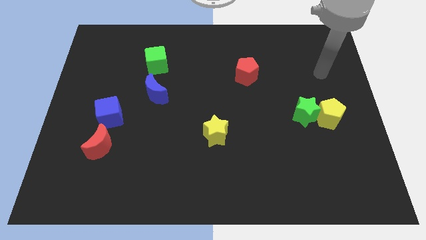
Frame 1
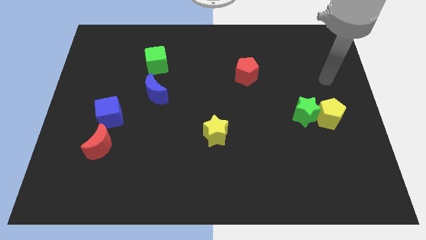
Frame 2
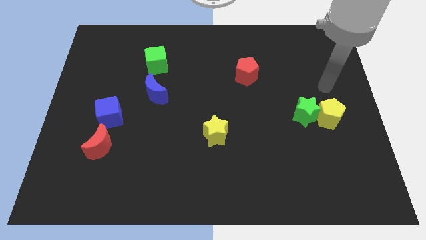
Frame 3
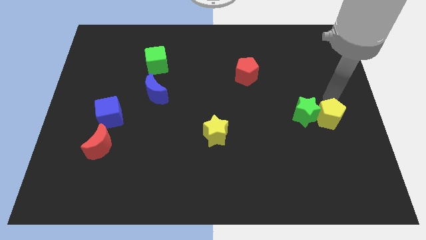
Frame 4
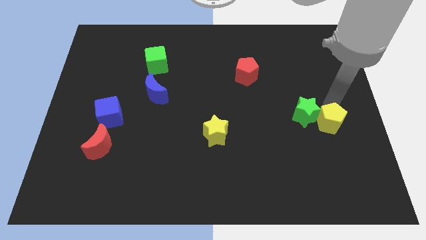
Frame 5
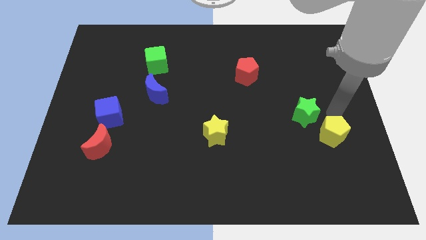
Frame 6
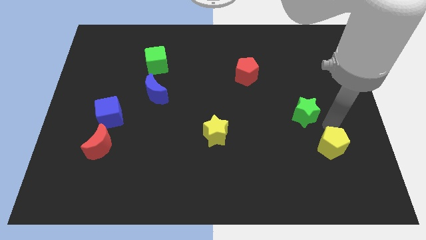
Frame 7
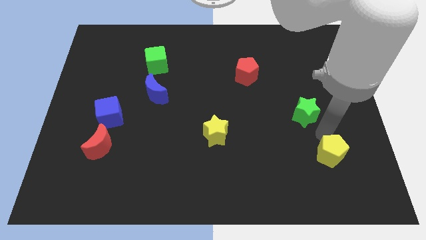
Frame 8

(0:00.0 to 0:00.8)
separate the green star from the yellow pentagon

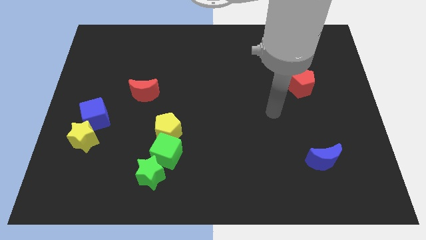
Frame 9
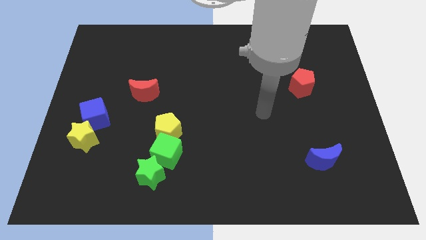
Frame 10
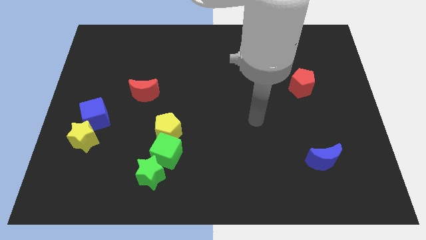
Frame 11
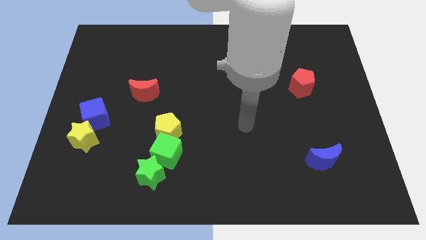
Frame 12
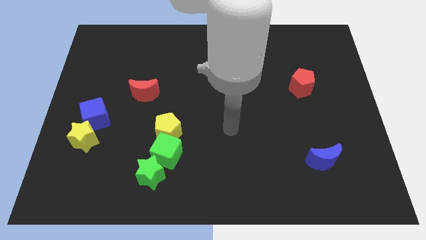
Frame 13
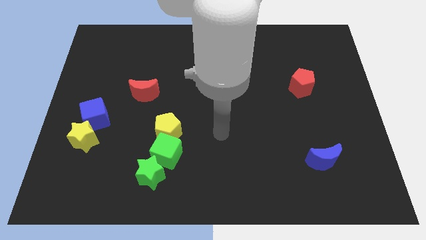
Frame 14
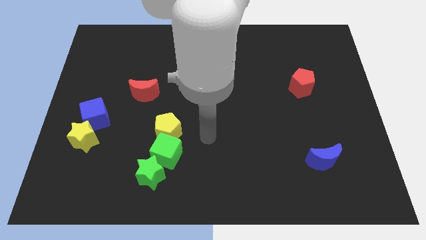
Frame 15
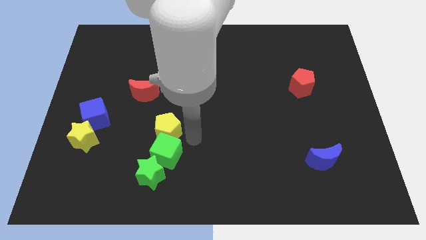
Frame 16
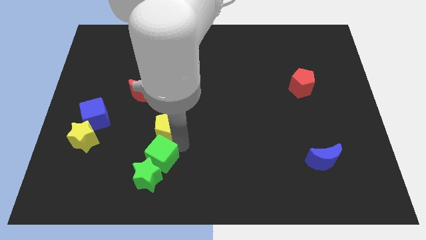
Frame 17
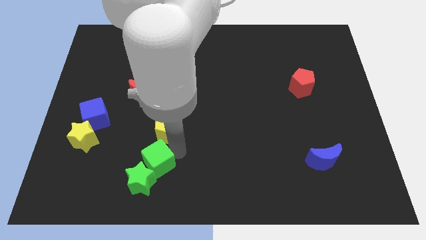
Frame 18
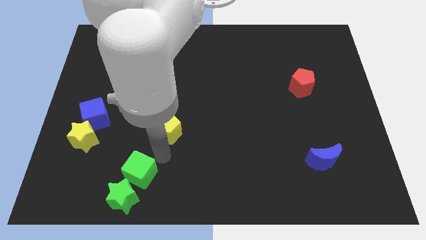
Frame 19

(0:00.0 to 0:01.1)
move the yellow pentagon away from the green cube

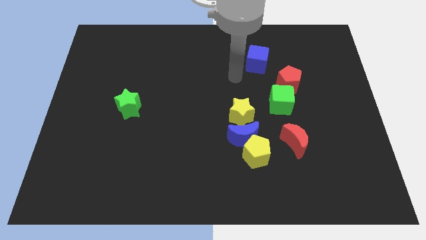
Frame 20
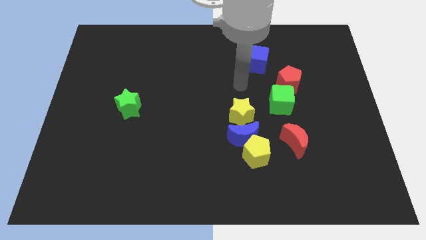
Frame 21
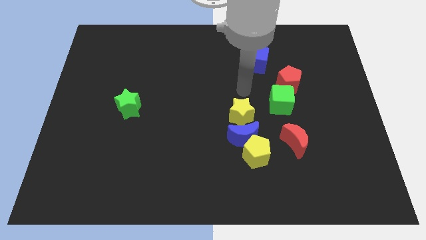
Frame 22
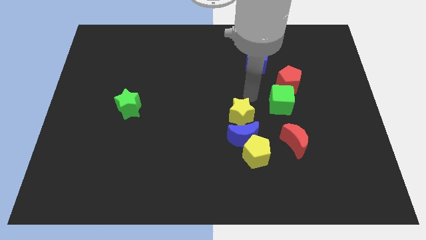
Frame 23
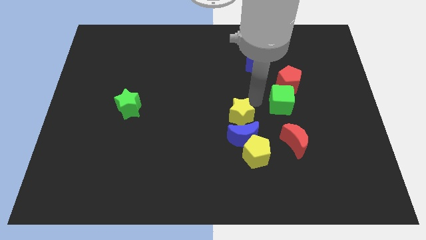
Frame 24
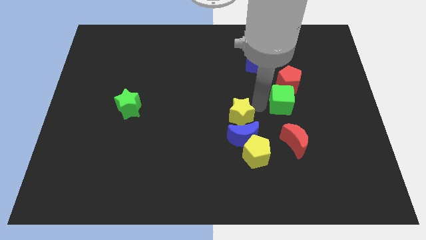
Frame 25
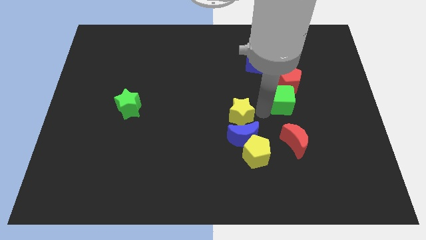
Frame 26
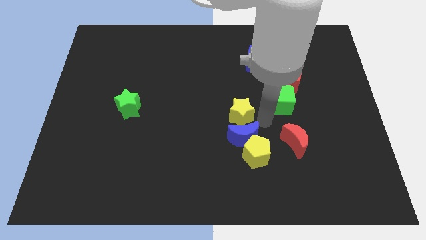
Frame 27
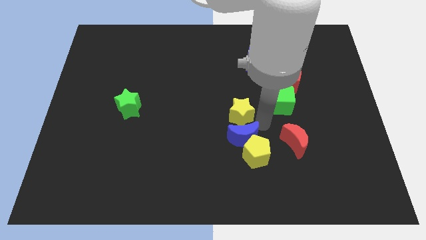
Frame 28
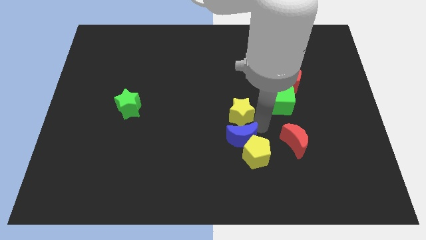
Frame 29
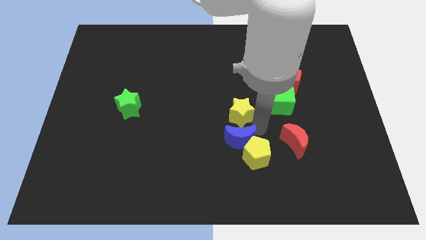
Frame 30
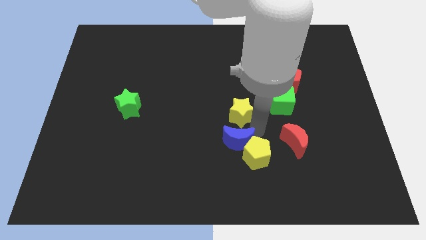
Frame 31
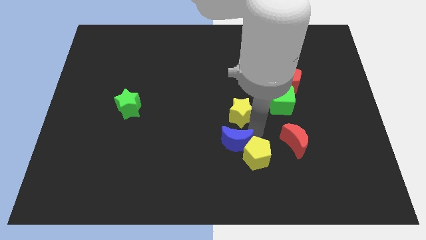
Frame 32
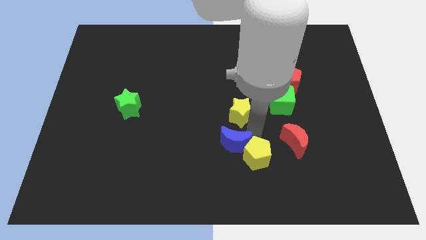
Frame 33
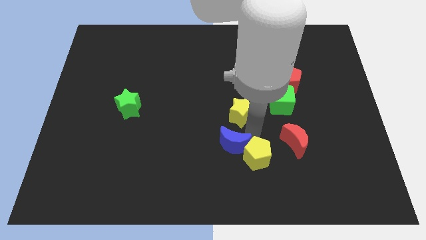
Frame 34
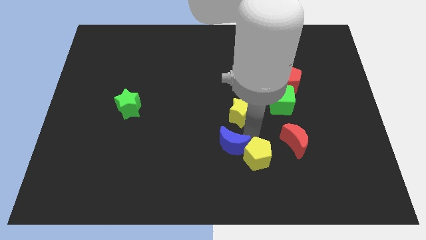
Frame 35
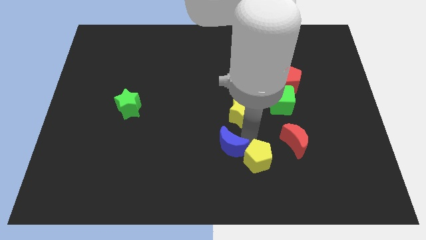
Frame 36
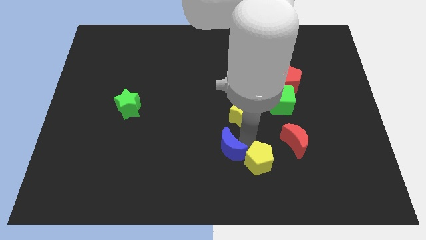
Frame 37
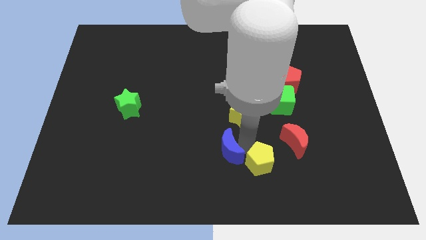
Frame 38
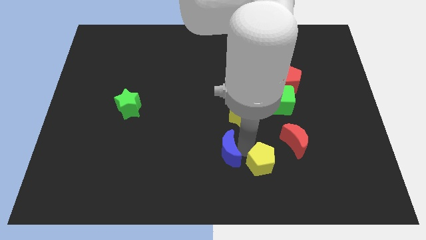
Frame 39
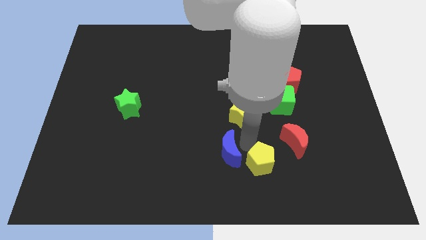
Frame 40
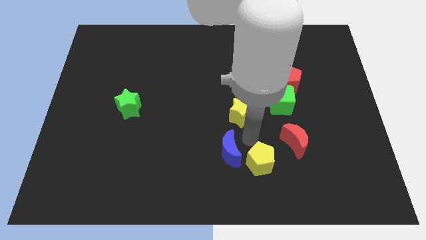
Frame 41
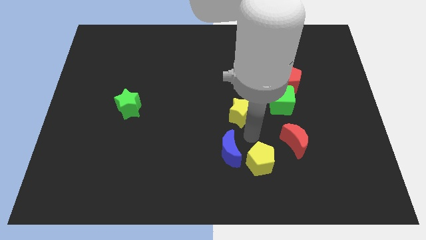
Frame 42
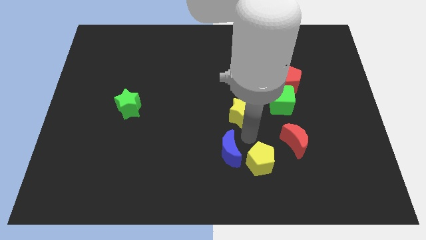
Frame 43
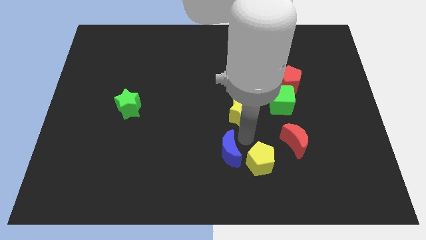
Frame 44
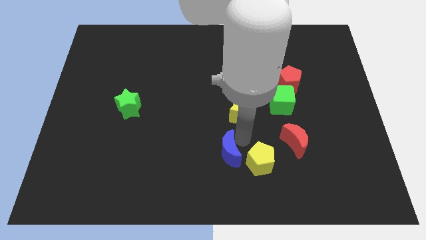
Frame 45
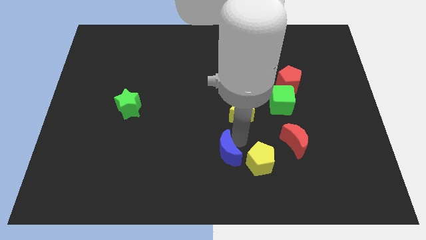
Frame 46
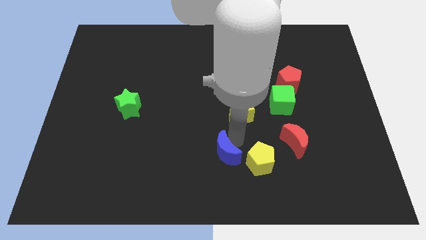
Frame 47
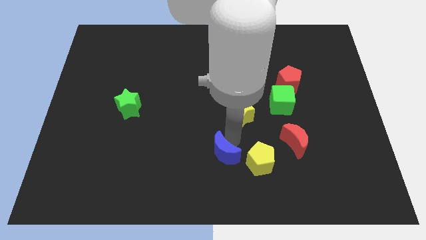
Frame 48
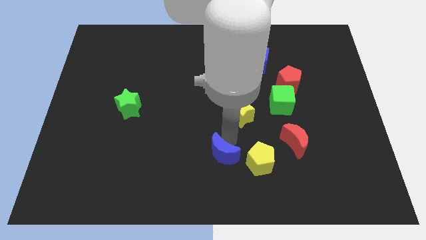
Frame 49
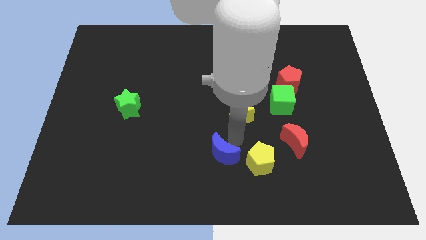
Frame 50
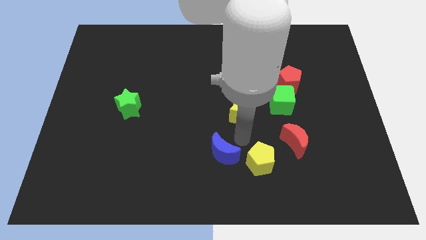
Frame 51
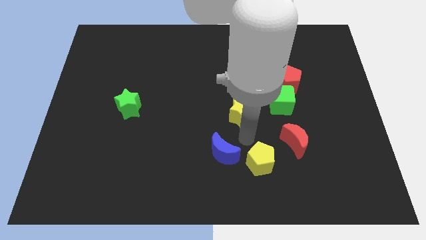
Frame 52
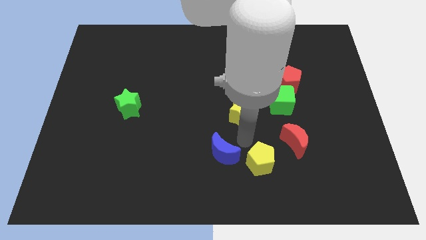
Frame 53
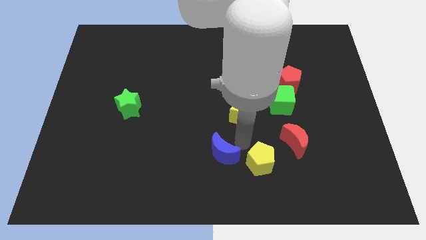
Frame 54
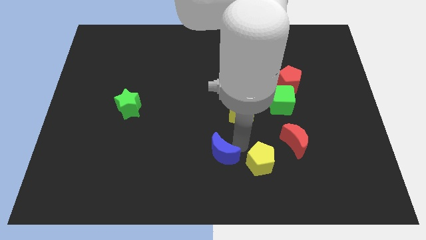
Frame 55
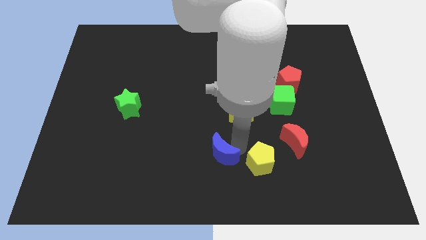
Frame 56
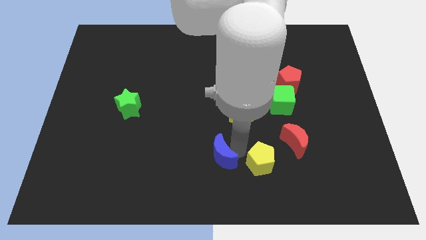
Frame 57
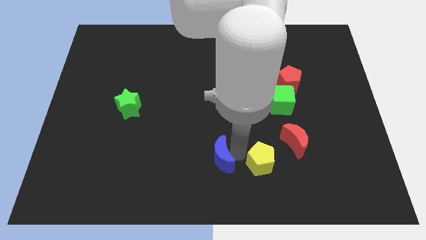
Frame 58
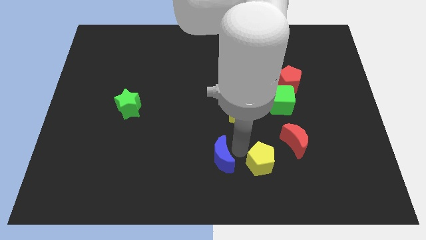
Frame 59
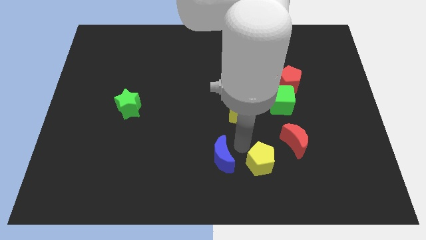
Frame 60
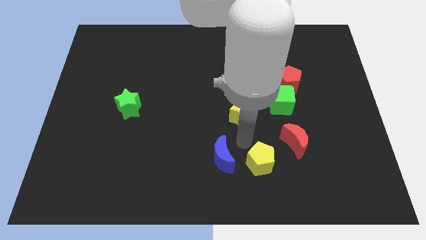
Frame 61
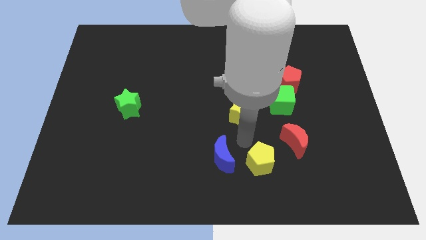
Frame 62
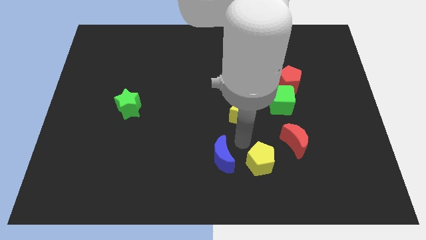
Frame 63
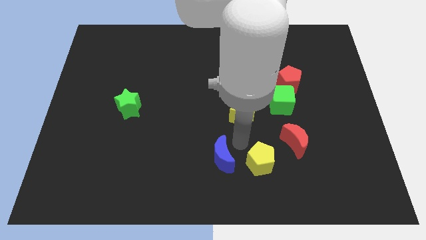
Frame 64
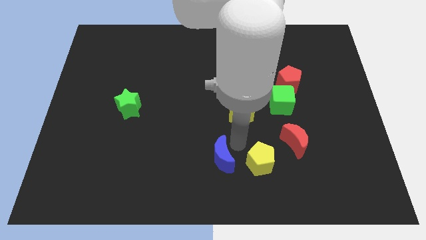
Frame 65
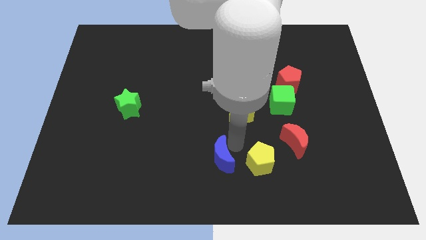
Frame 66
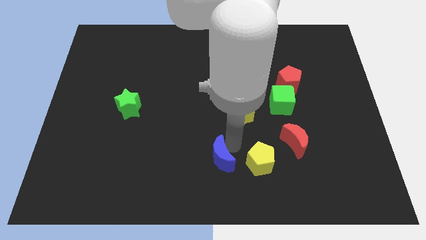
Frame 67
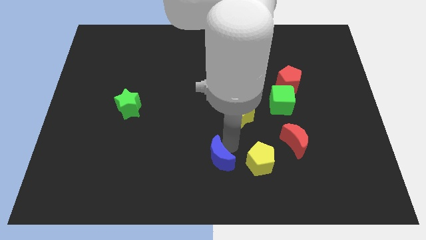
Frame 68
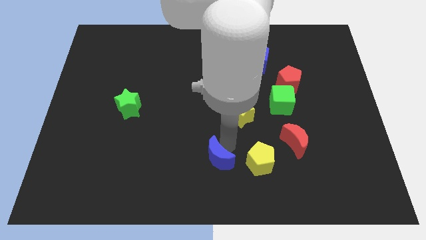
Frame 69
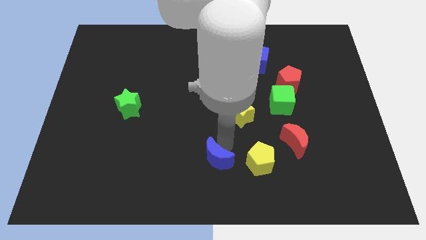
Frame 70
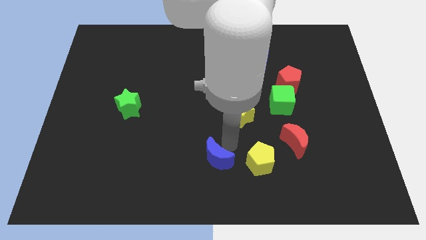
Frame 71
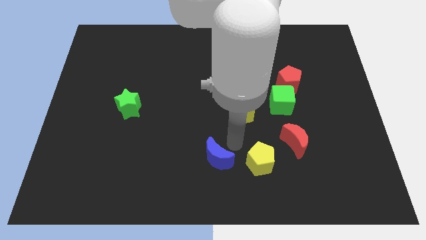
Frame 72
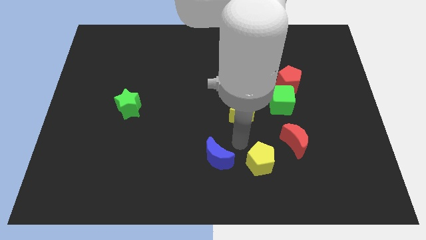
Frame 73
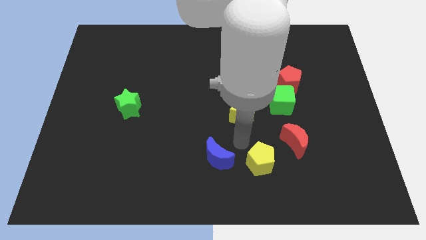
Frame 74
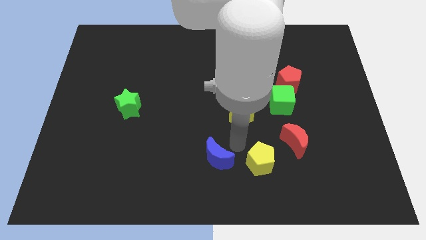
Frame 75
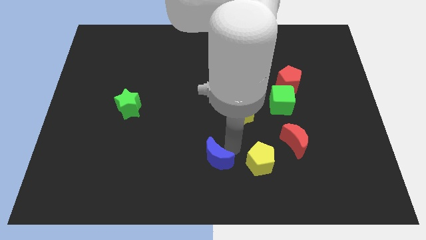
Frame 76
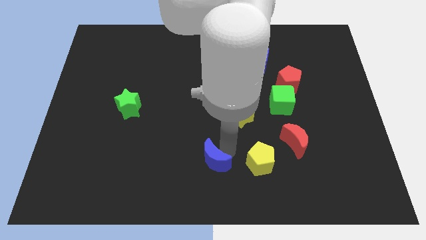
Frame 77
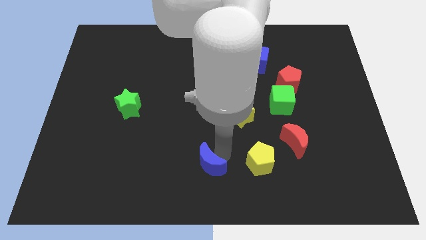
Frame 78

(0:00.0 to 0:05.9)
pull the blue moon apart from the yellow pentagon and yellow star

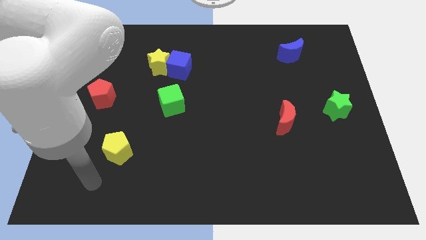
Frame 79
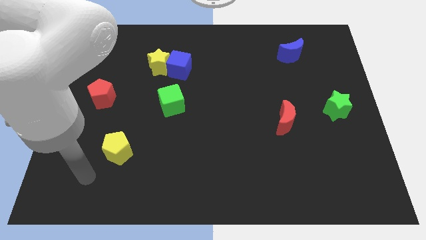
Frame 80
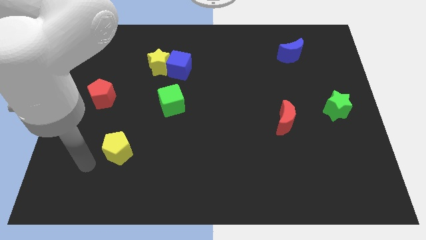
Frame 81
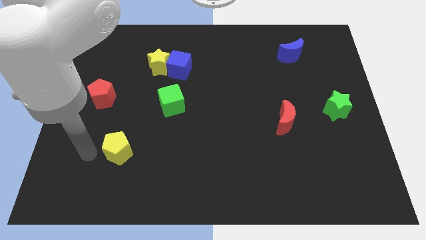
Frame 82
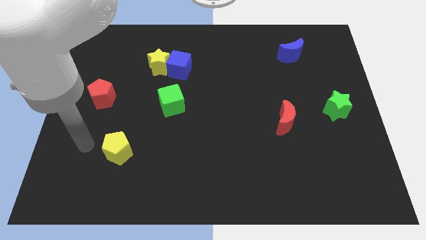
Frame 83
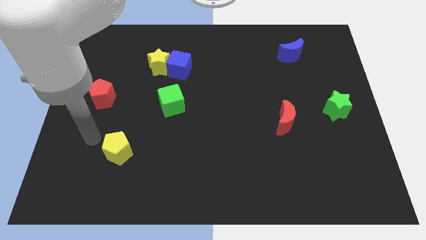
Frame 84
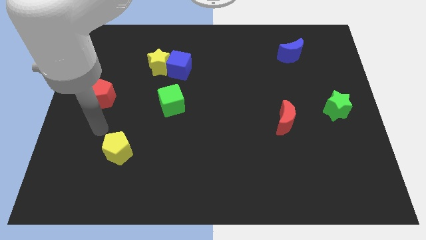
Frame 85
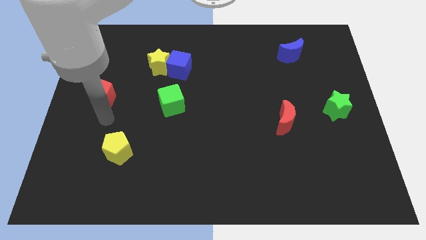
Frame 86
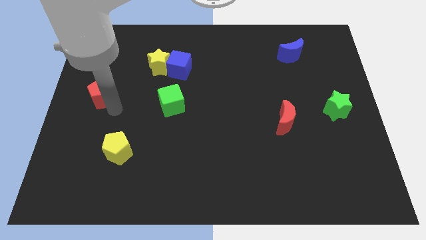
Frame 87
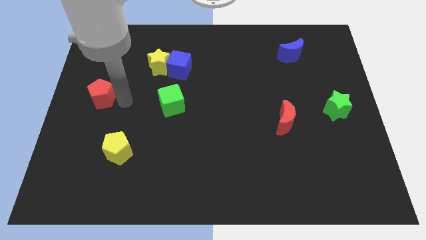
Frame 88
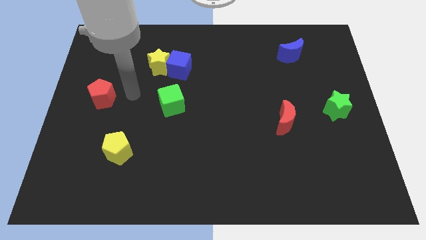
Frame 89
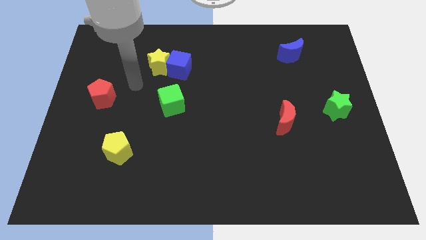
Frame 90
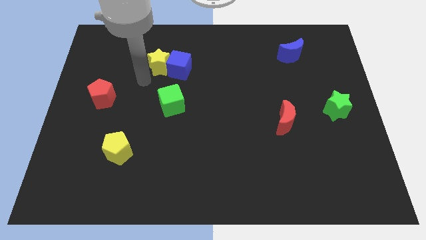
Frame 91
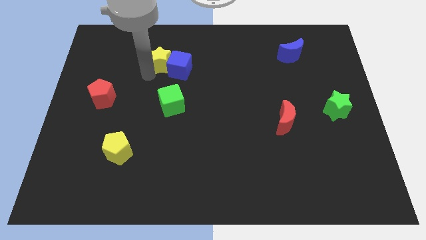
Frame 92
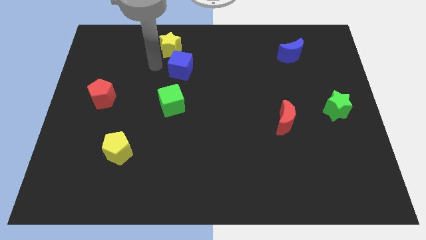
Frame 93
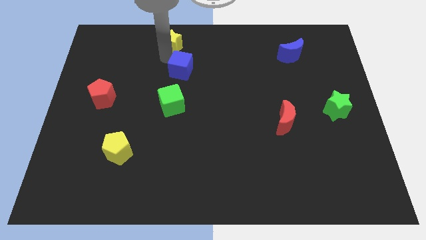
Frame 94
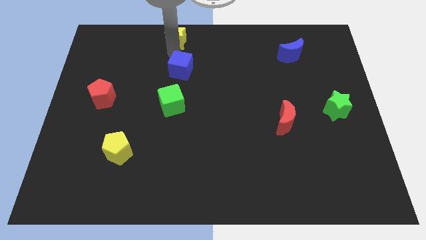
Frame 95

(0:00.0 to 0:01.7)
move the blue cube away from the yellow star
